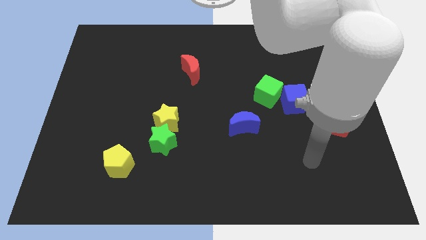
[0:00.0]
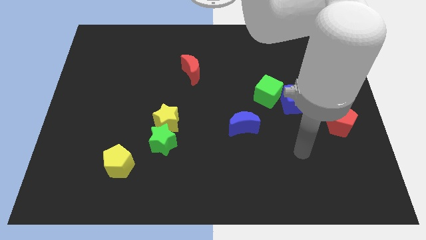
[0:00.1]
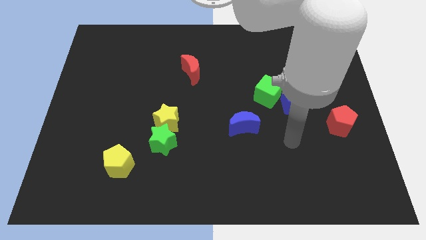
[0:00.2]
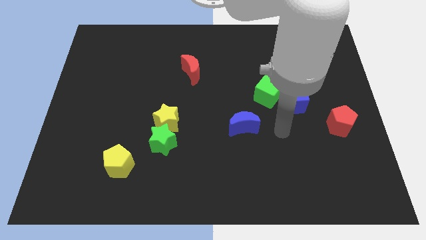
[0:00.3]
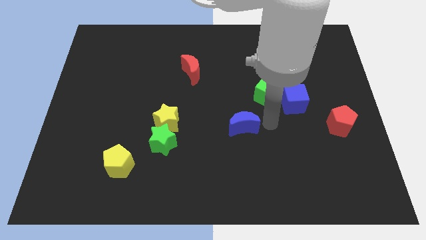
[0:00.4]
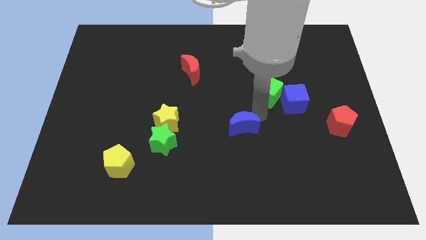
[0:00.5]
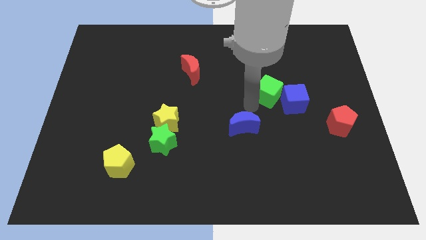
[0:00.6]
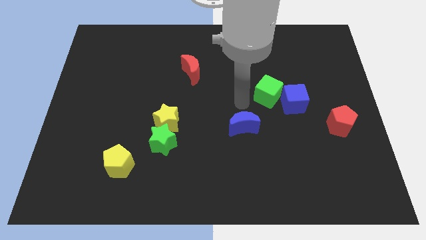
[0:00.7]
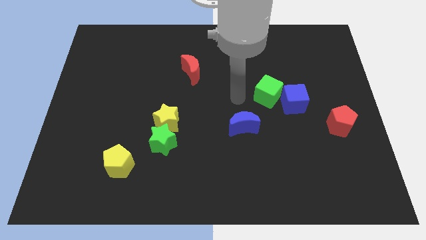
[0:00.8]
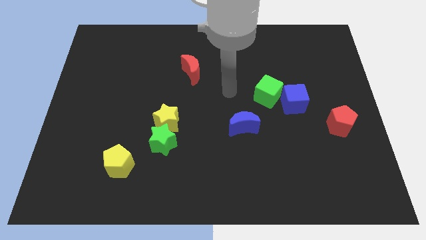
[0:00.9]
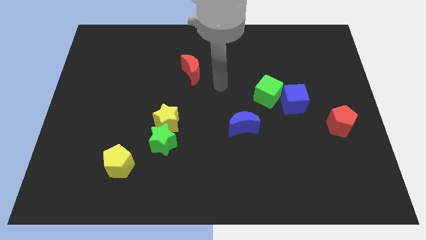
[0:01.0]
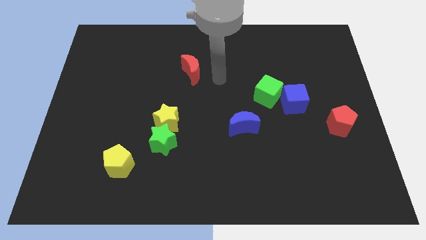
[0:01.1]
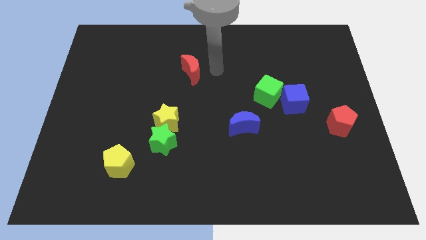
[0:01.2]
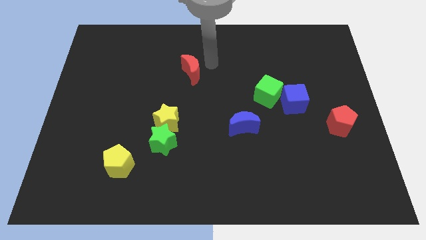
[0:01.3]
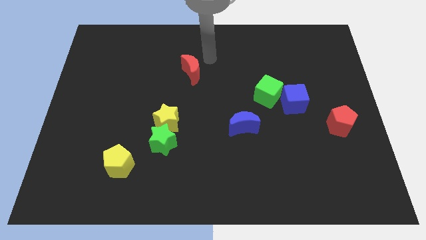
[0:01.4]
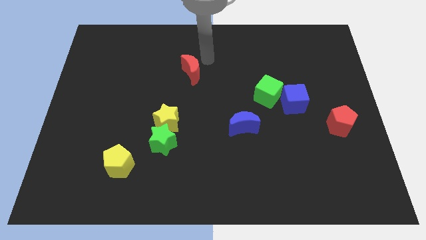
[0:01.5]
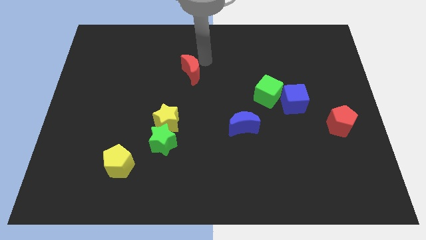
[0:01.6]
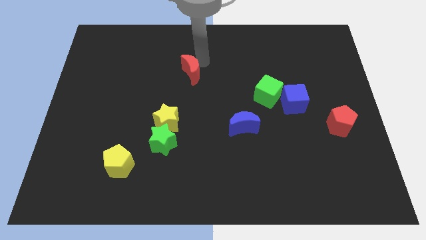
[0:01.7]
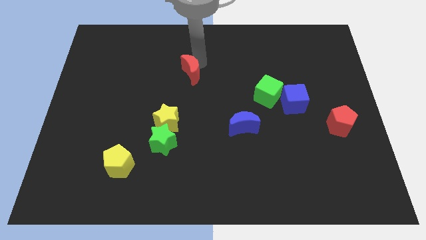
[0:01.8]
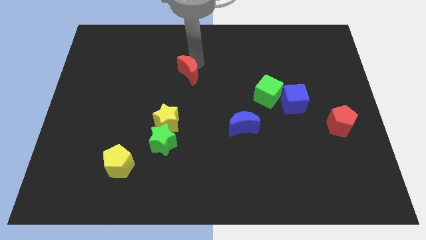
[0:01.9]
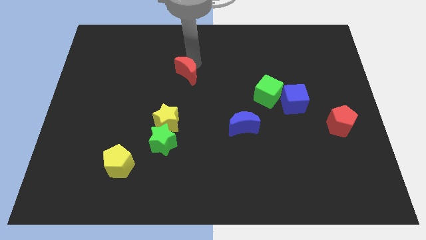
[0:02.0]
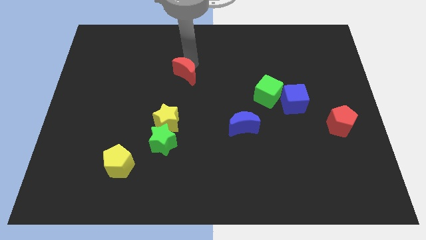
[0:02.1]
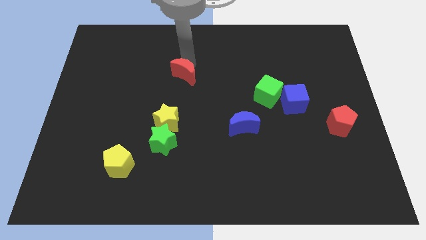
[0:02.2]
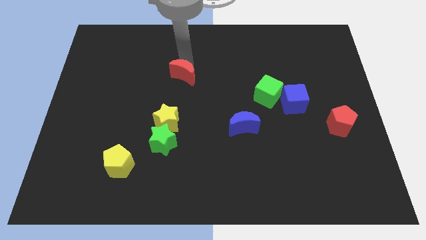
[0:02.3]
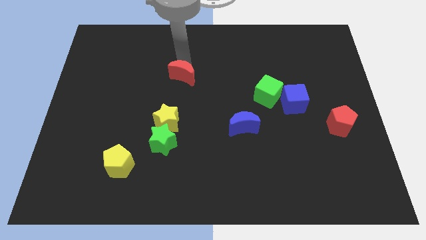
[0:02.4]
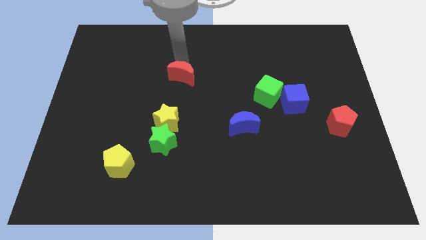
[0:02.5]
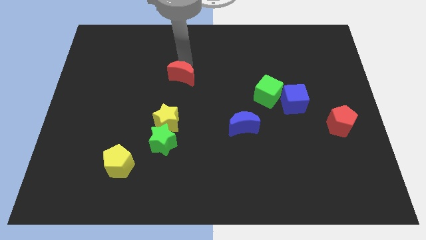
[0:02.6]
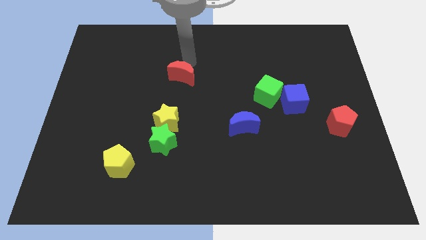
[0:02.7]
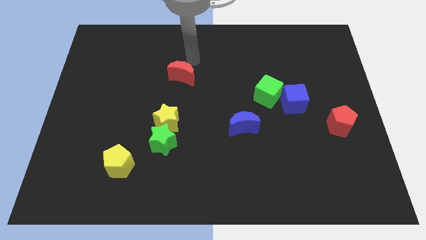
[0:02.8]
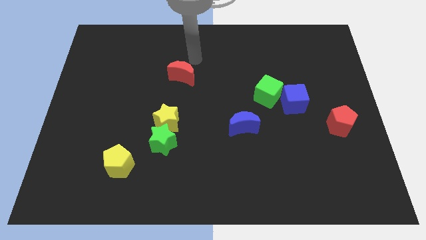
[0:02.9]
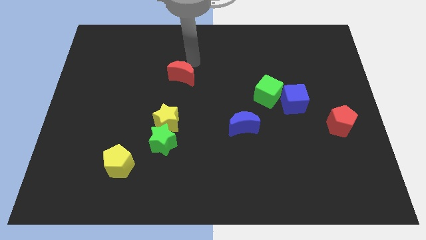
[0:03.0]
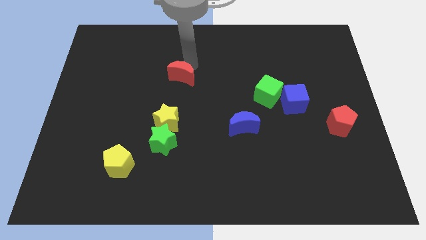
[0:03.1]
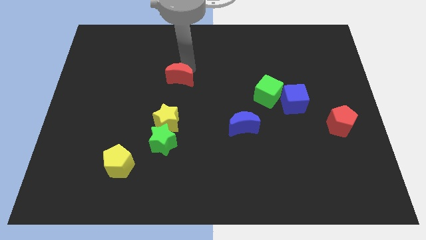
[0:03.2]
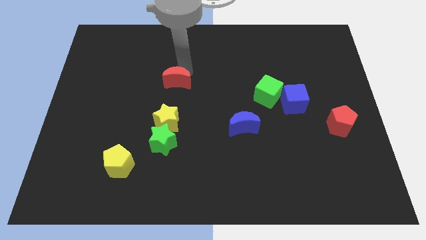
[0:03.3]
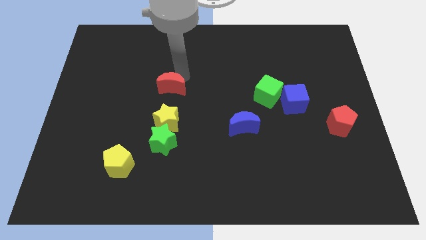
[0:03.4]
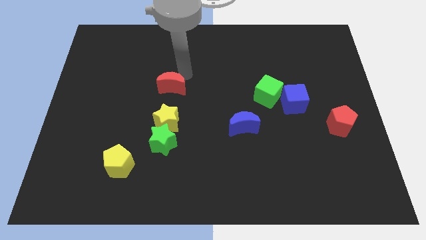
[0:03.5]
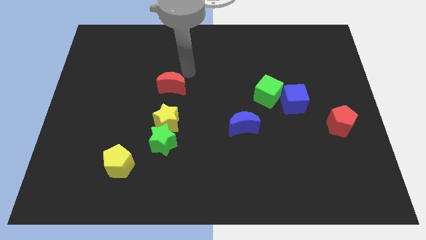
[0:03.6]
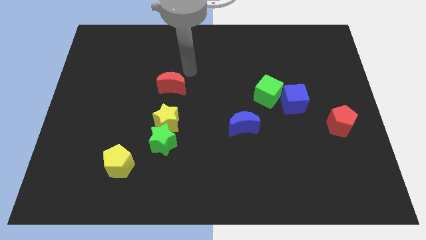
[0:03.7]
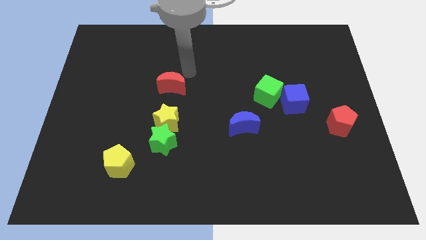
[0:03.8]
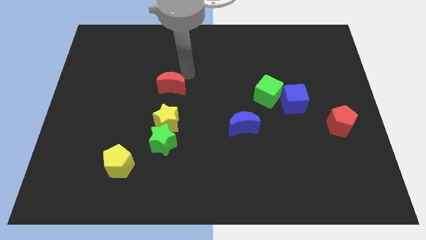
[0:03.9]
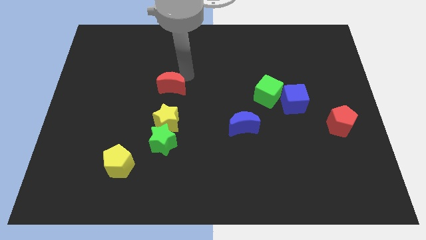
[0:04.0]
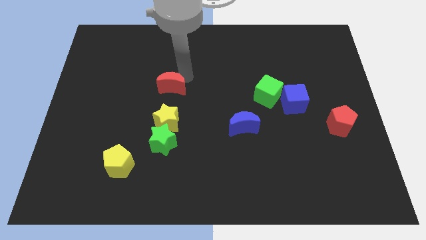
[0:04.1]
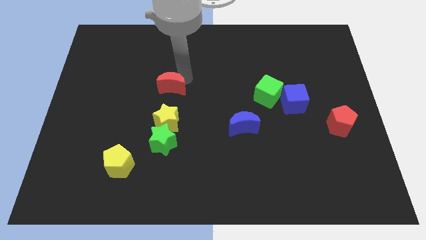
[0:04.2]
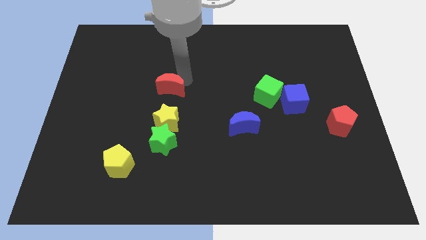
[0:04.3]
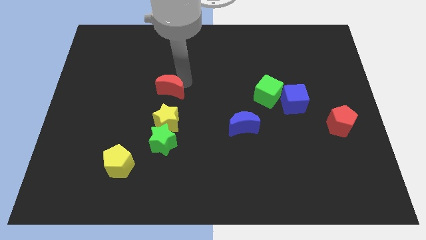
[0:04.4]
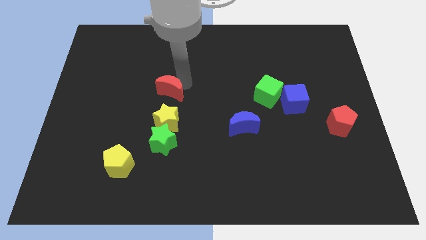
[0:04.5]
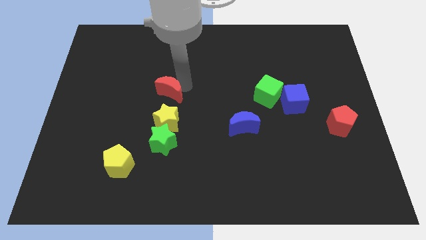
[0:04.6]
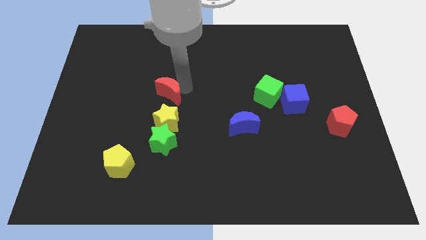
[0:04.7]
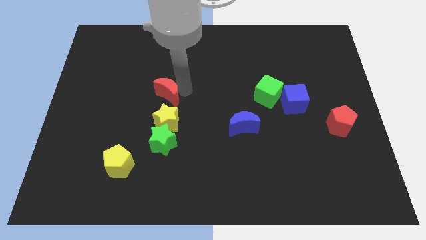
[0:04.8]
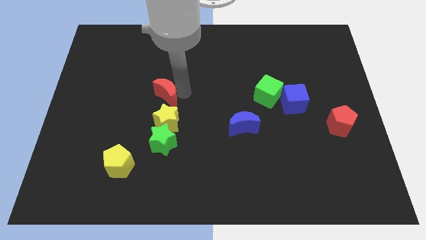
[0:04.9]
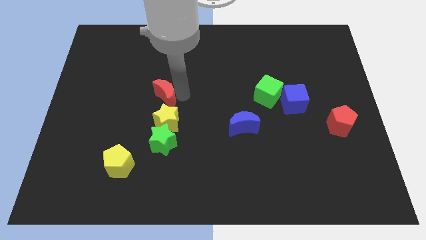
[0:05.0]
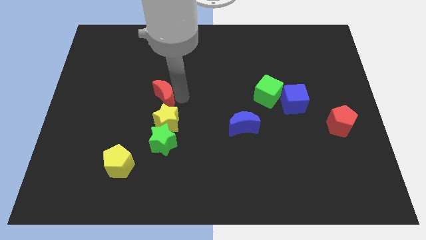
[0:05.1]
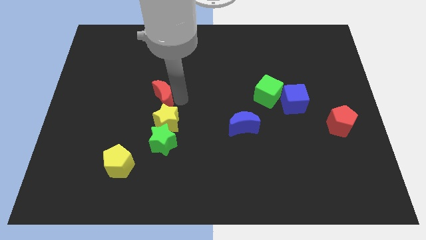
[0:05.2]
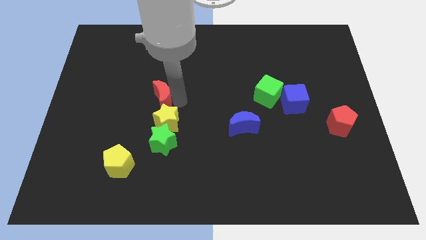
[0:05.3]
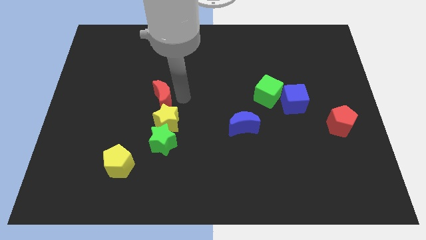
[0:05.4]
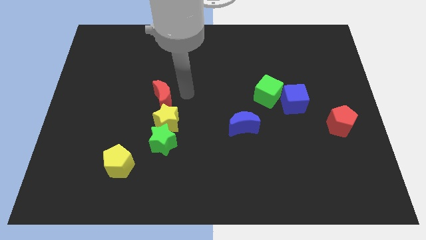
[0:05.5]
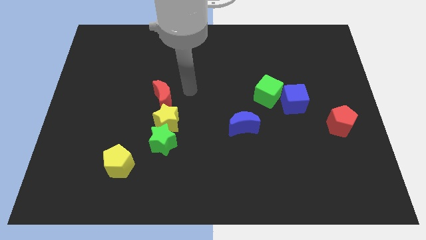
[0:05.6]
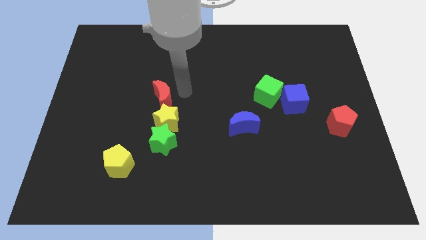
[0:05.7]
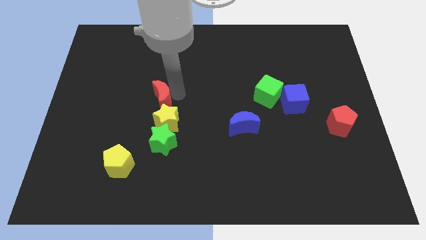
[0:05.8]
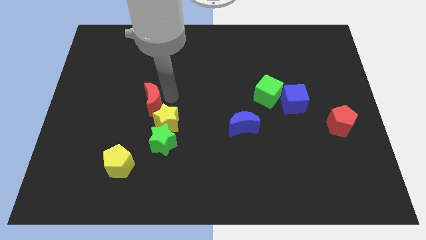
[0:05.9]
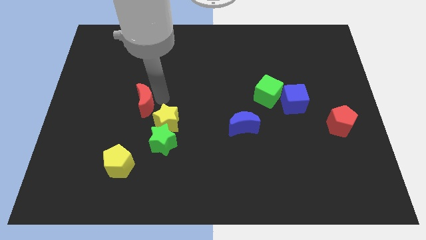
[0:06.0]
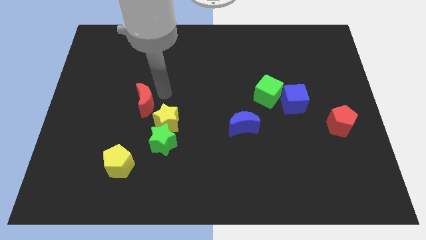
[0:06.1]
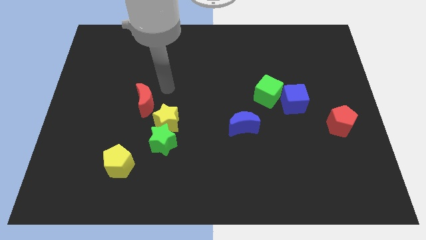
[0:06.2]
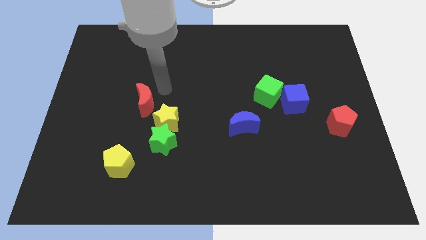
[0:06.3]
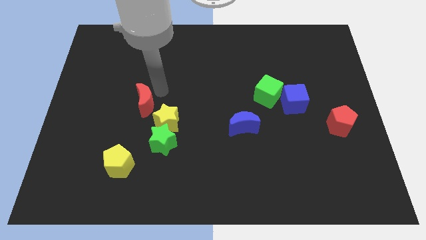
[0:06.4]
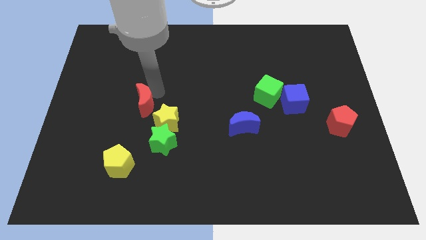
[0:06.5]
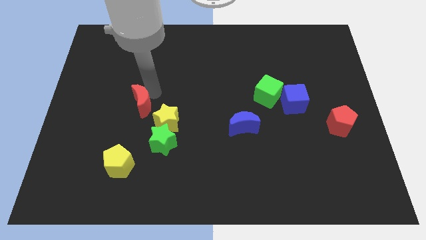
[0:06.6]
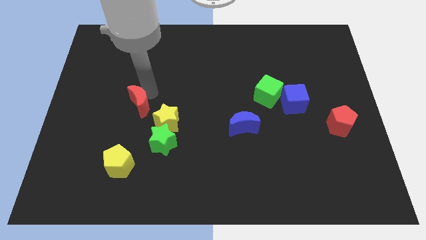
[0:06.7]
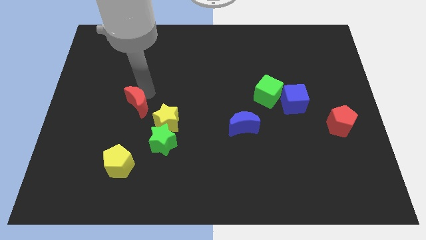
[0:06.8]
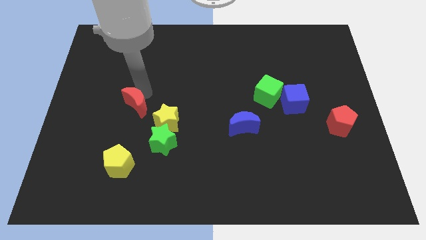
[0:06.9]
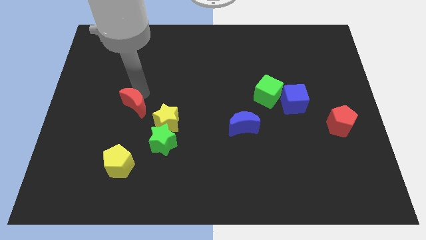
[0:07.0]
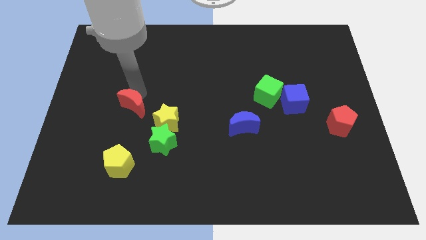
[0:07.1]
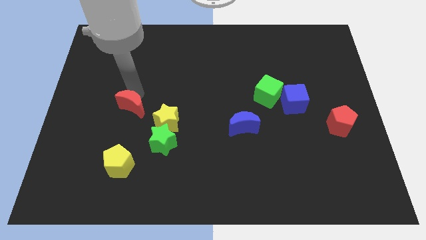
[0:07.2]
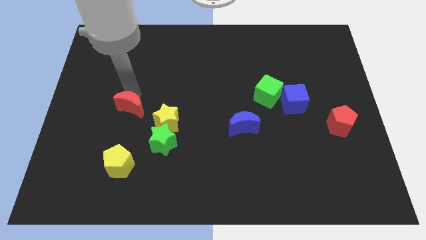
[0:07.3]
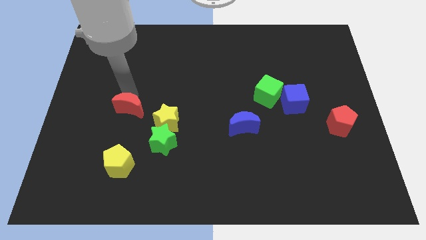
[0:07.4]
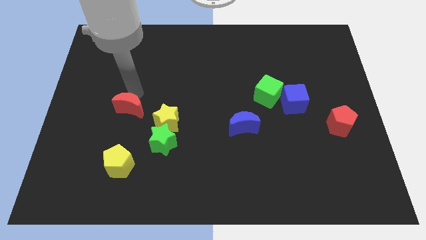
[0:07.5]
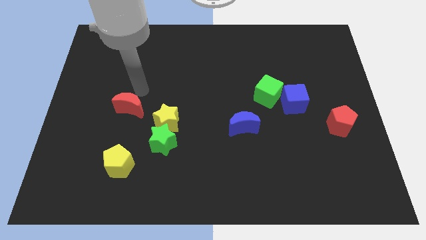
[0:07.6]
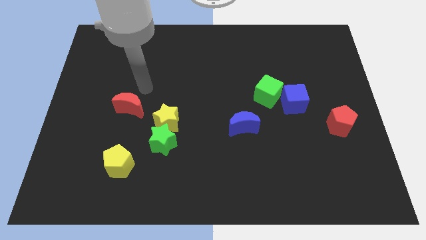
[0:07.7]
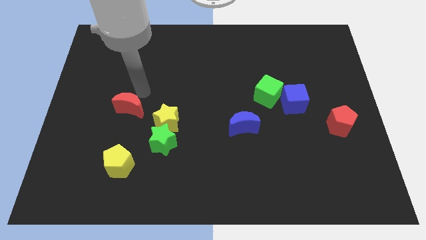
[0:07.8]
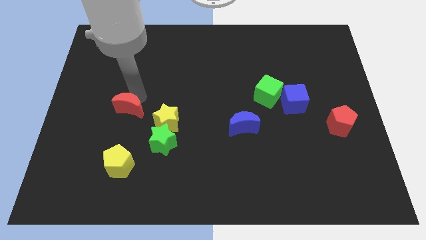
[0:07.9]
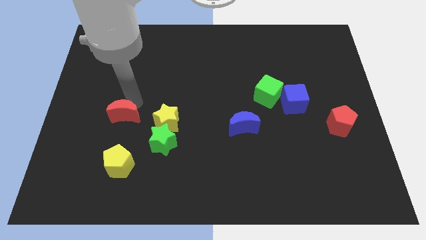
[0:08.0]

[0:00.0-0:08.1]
move the red moon downwards and then left
